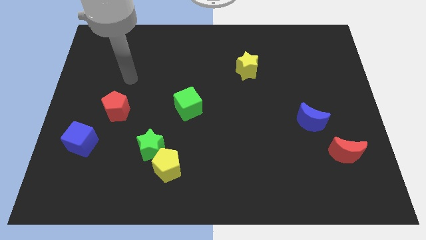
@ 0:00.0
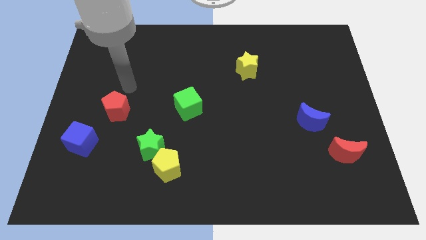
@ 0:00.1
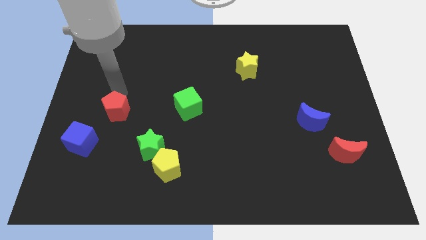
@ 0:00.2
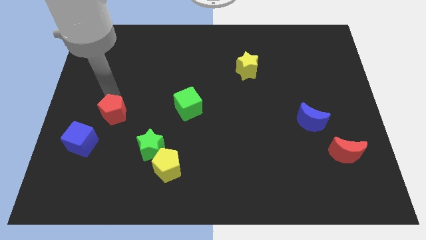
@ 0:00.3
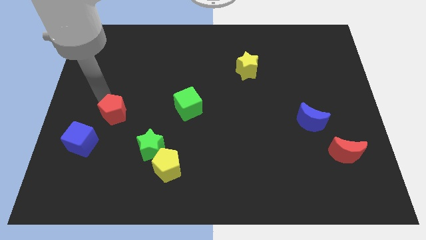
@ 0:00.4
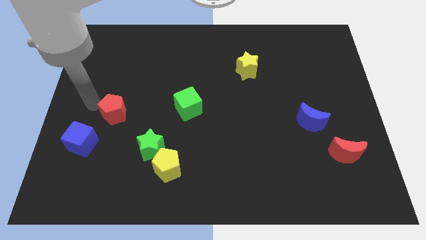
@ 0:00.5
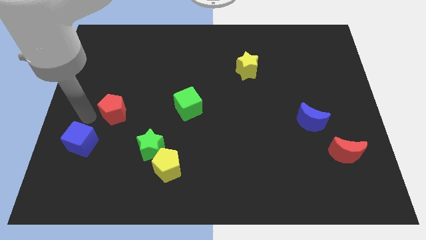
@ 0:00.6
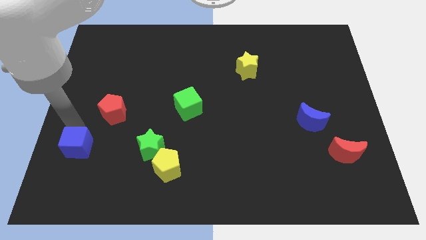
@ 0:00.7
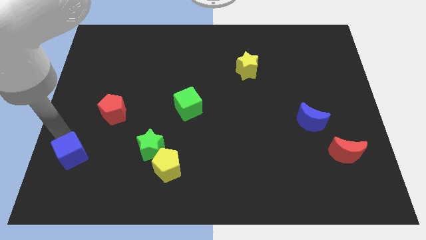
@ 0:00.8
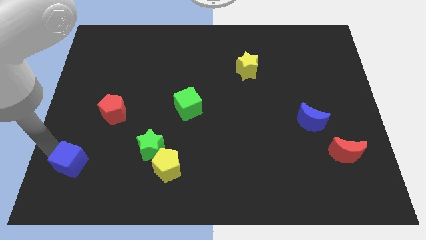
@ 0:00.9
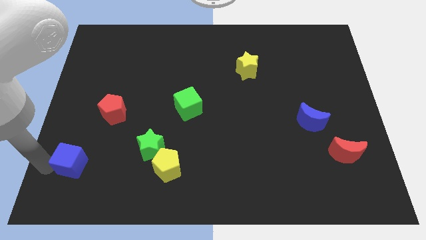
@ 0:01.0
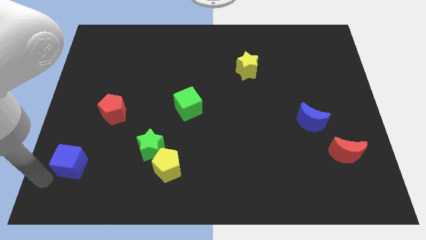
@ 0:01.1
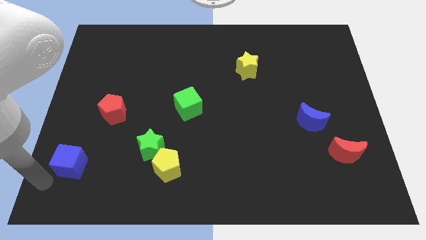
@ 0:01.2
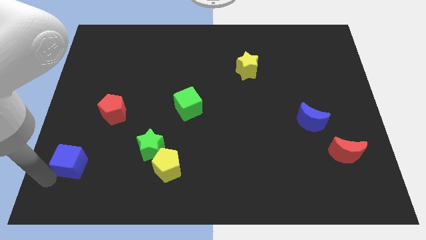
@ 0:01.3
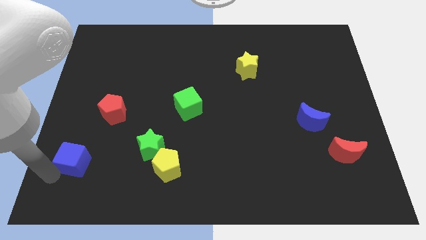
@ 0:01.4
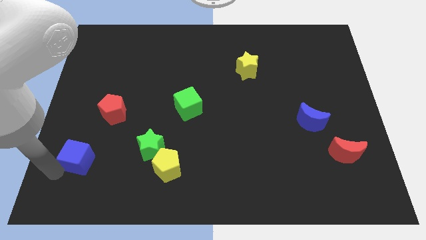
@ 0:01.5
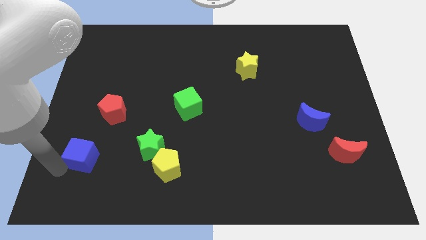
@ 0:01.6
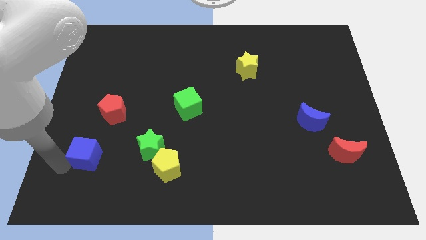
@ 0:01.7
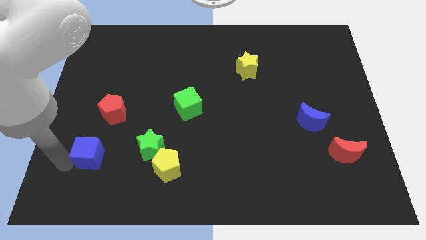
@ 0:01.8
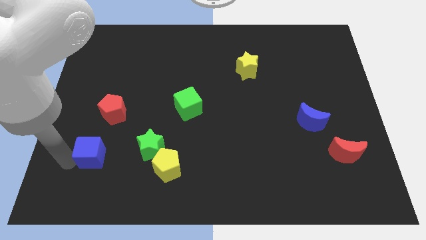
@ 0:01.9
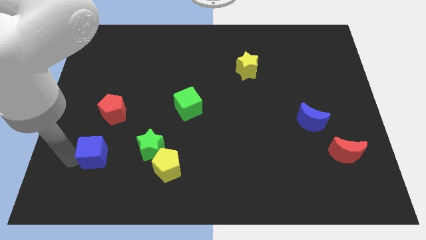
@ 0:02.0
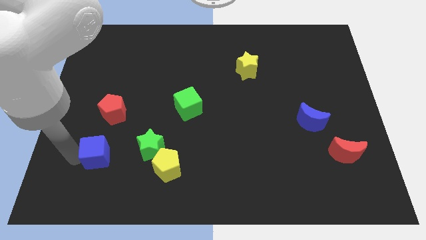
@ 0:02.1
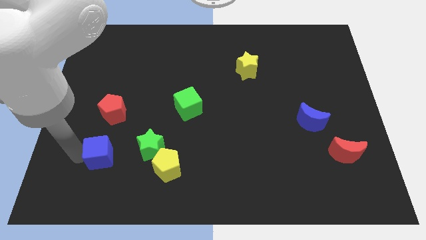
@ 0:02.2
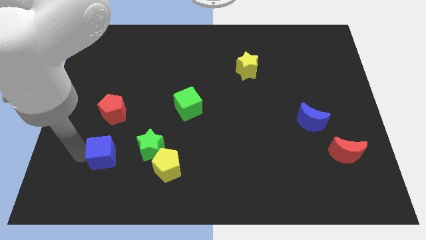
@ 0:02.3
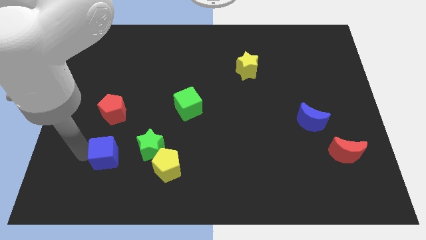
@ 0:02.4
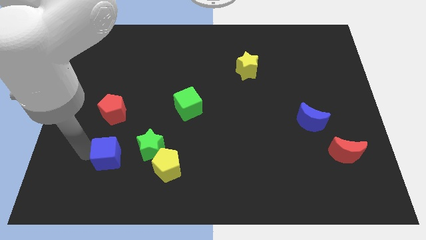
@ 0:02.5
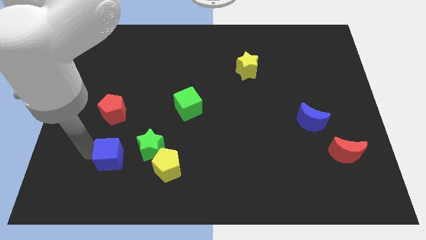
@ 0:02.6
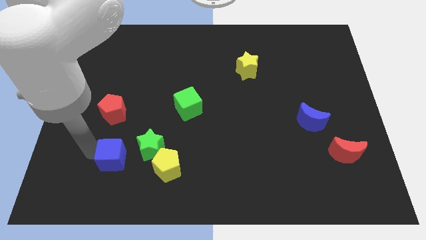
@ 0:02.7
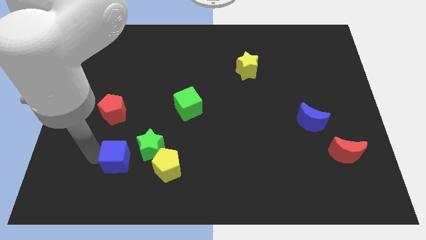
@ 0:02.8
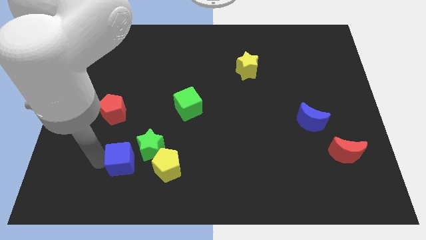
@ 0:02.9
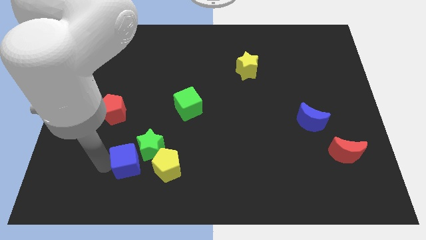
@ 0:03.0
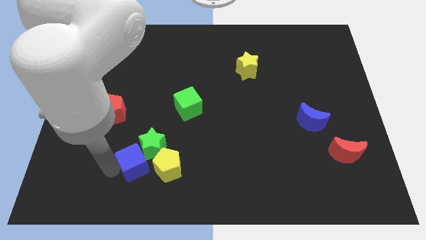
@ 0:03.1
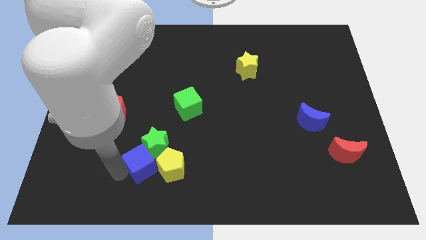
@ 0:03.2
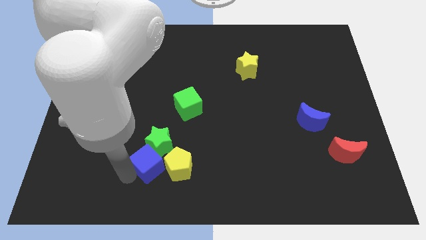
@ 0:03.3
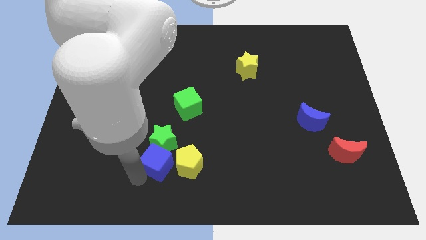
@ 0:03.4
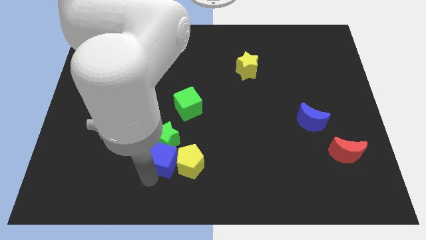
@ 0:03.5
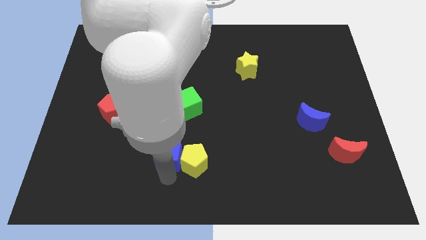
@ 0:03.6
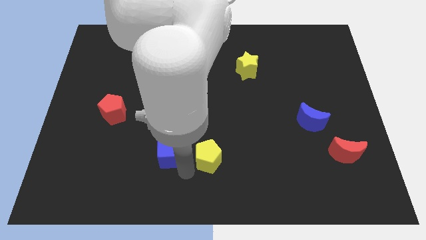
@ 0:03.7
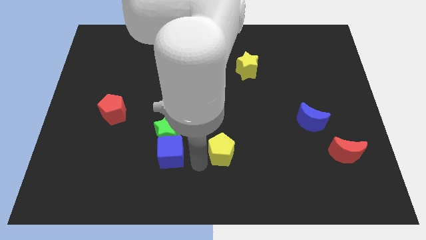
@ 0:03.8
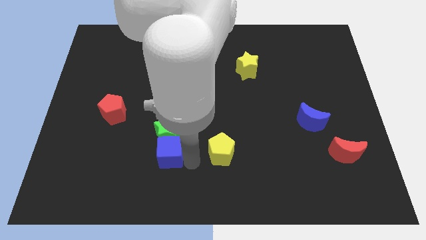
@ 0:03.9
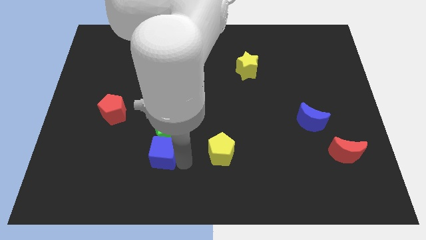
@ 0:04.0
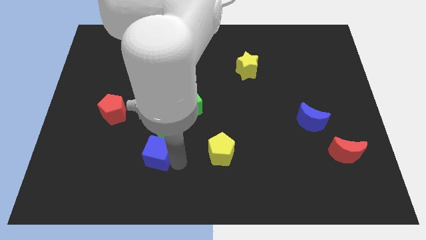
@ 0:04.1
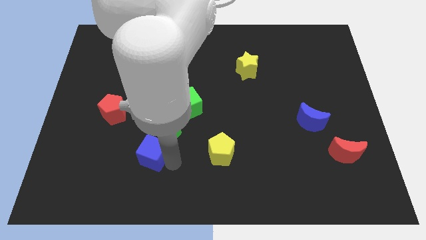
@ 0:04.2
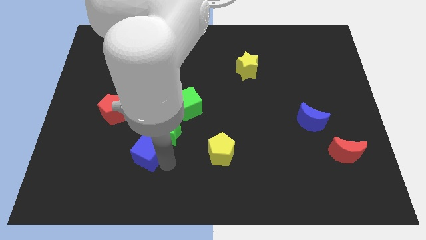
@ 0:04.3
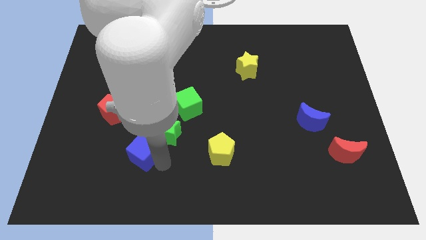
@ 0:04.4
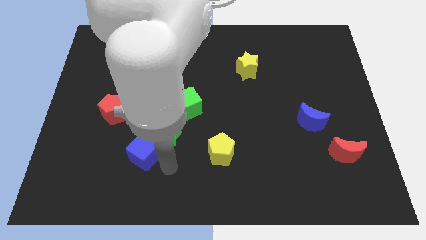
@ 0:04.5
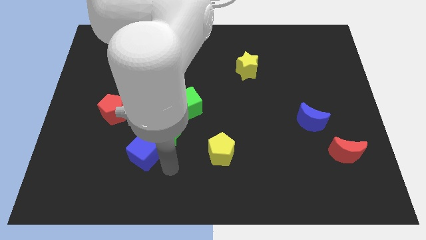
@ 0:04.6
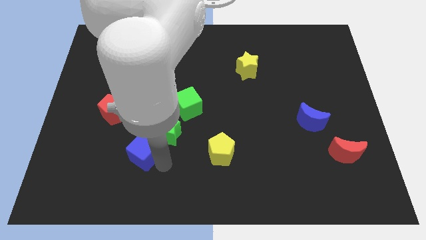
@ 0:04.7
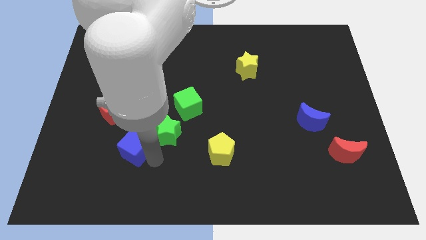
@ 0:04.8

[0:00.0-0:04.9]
put the blue cube diagonally down and to the right of the red pentagon

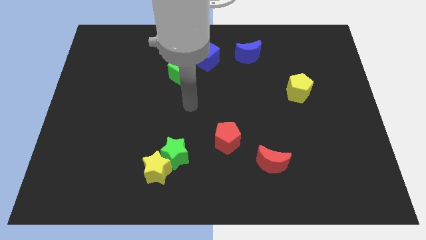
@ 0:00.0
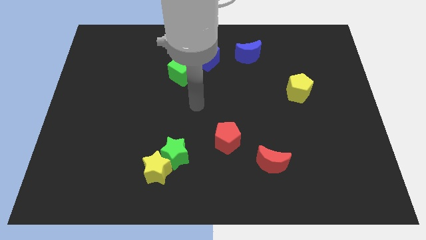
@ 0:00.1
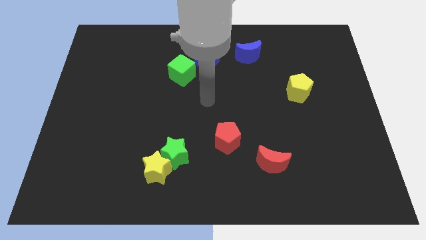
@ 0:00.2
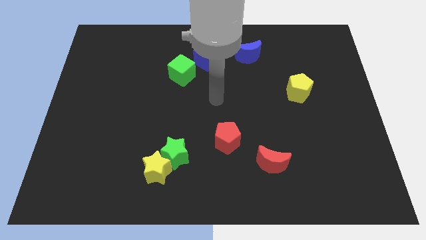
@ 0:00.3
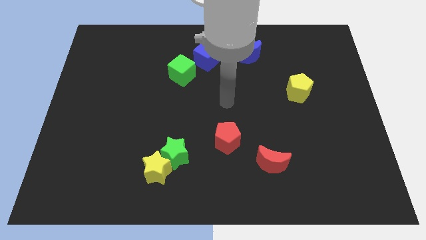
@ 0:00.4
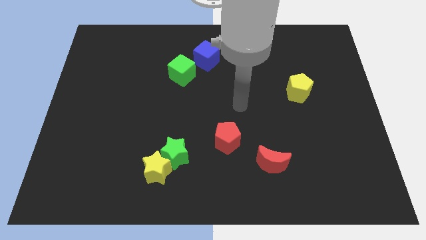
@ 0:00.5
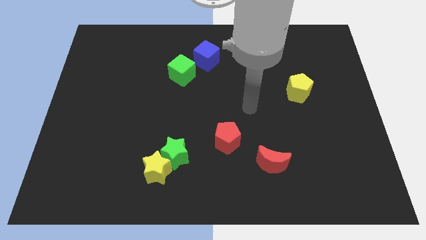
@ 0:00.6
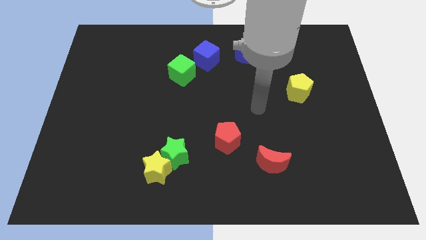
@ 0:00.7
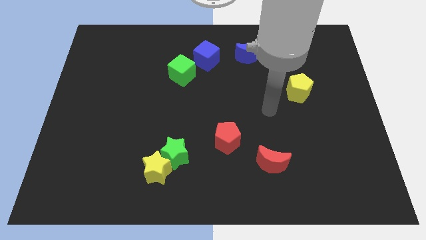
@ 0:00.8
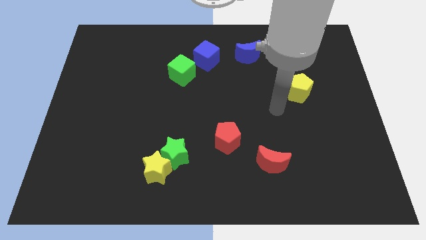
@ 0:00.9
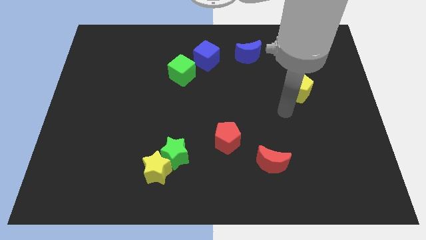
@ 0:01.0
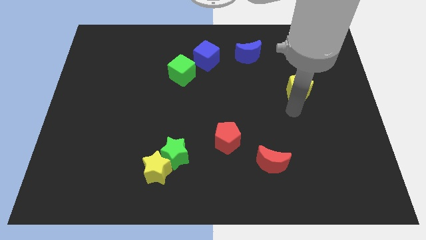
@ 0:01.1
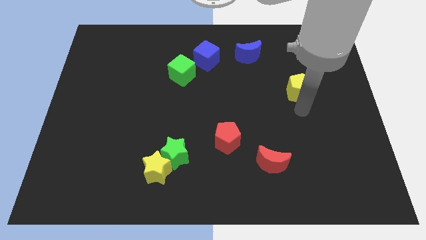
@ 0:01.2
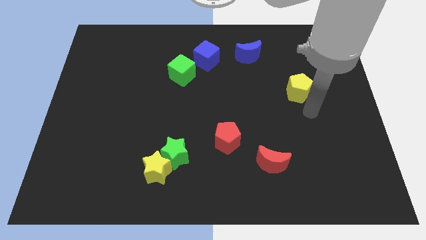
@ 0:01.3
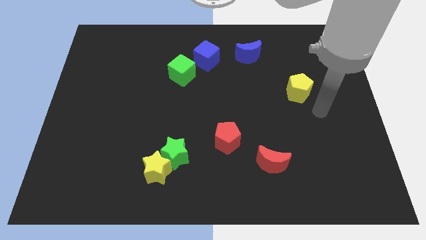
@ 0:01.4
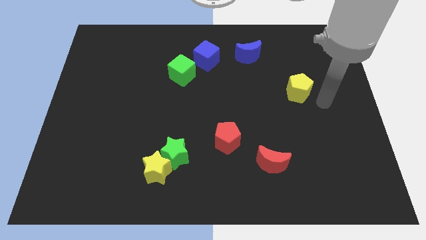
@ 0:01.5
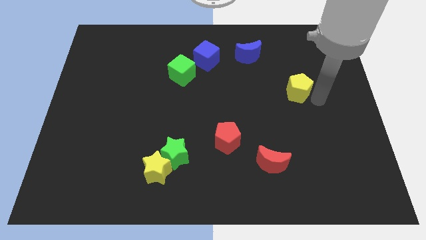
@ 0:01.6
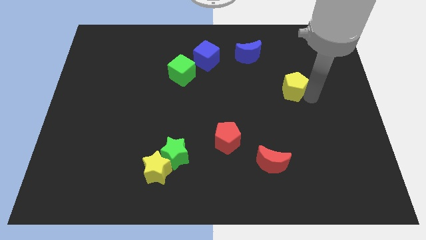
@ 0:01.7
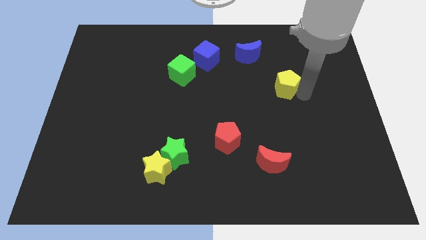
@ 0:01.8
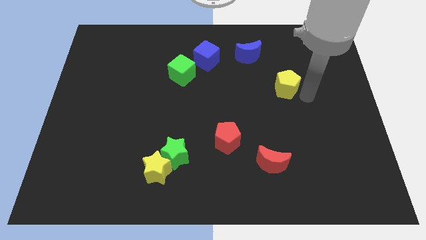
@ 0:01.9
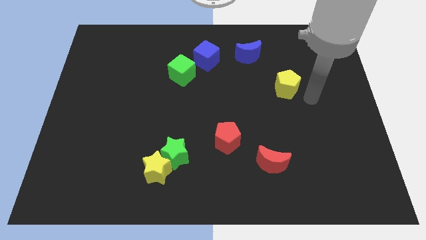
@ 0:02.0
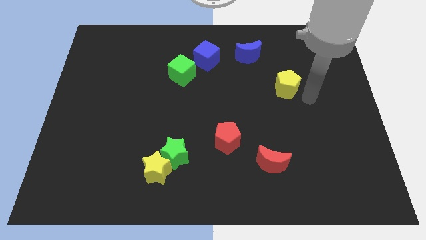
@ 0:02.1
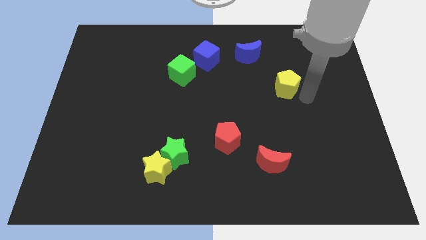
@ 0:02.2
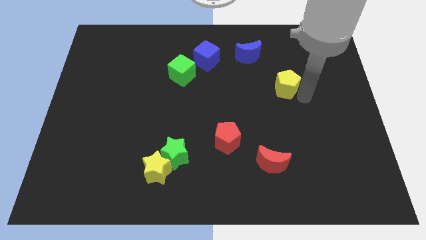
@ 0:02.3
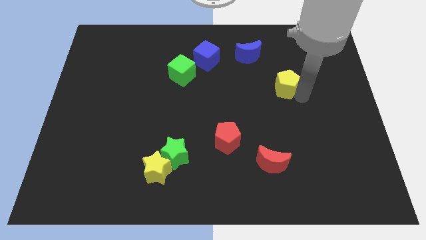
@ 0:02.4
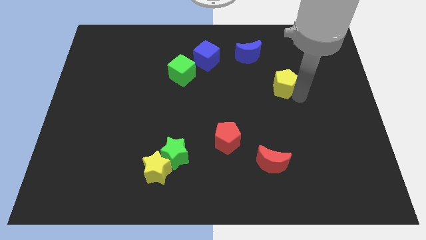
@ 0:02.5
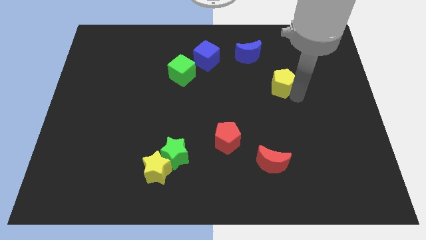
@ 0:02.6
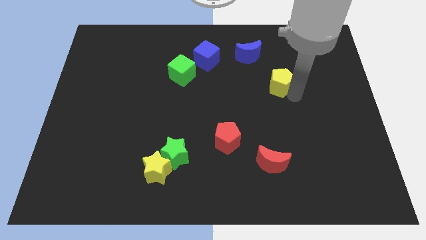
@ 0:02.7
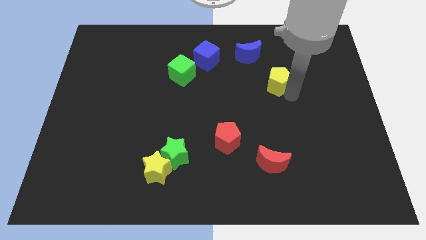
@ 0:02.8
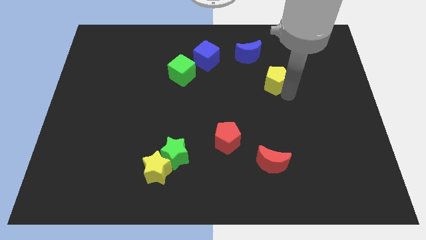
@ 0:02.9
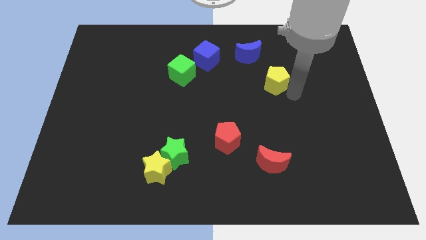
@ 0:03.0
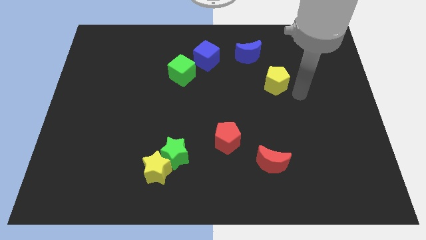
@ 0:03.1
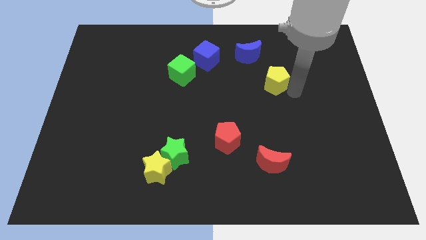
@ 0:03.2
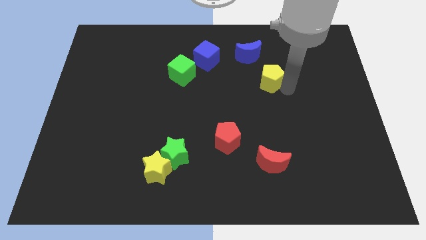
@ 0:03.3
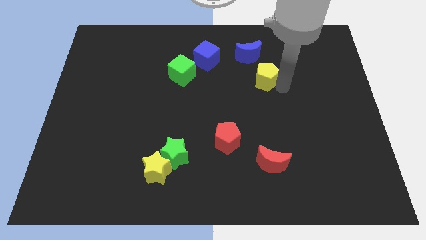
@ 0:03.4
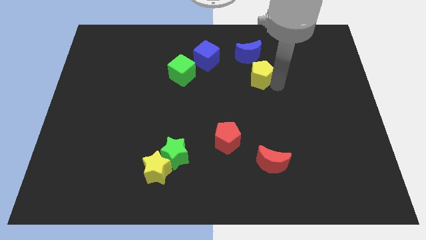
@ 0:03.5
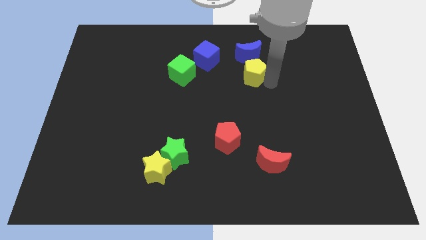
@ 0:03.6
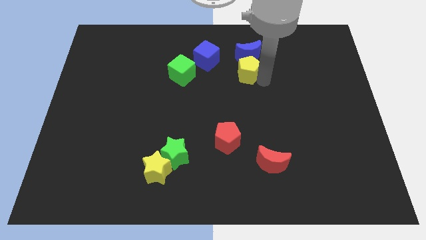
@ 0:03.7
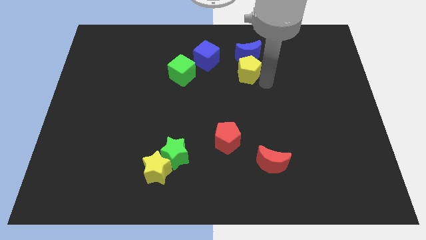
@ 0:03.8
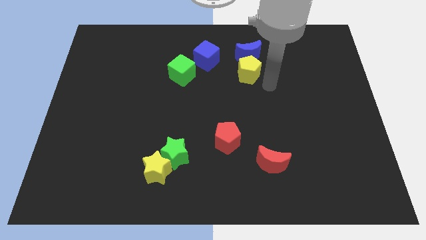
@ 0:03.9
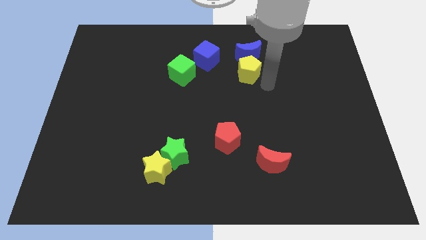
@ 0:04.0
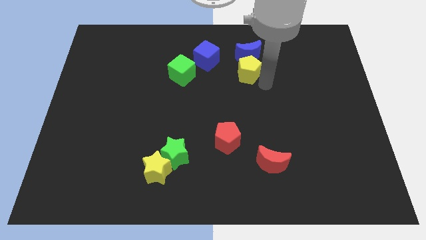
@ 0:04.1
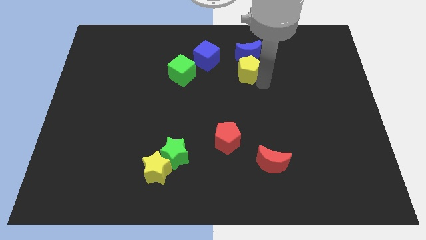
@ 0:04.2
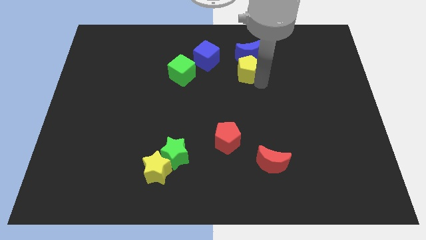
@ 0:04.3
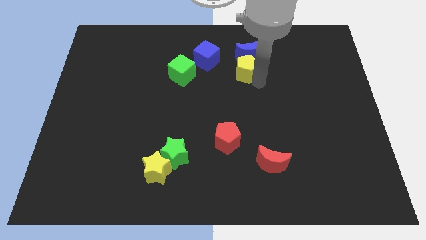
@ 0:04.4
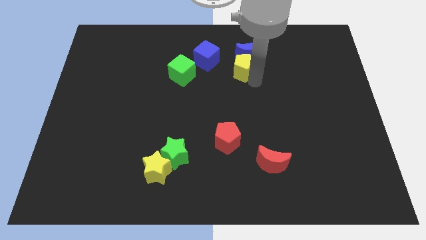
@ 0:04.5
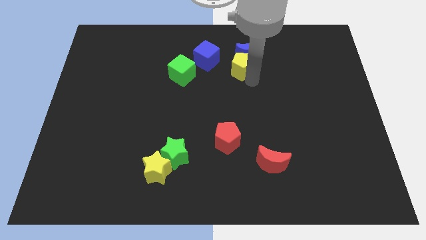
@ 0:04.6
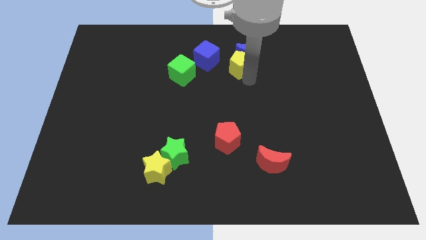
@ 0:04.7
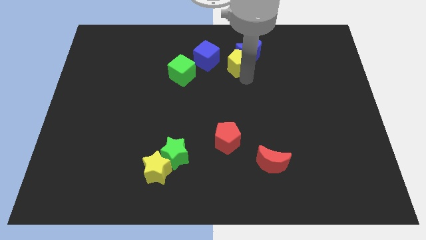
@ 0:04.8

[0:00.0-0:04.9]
push the yellow pentagon left of the blue moon
